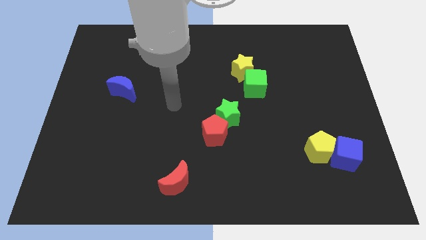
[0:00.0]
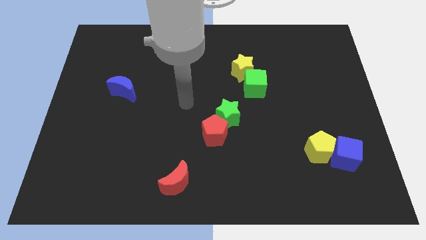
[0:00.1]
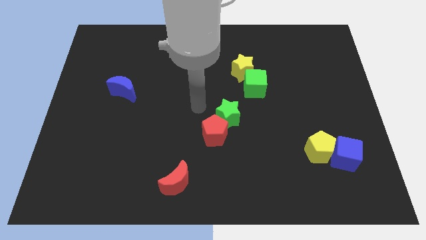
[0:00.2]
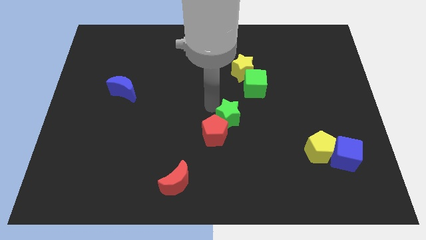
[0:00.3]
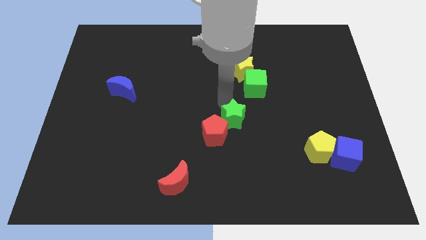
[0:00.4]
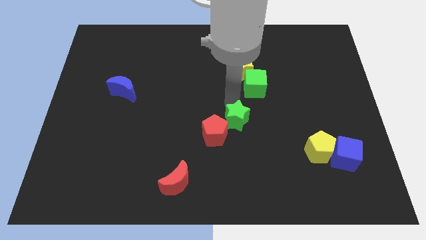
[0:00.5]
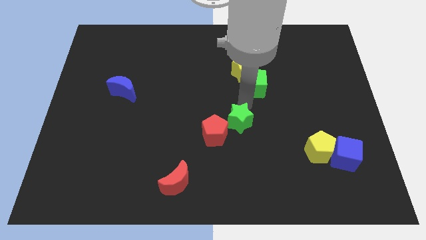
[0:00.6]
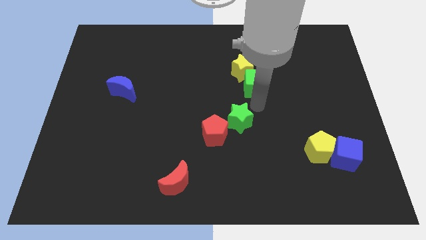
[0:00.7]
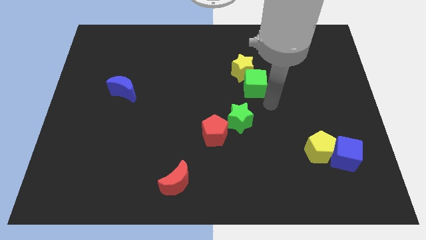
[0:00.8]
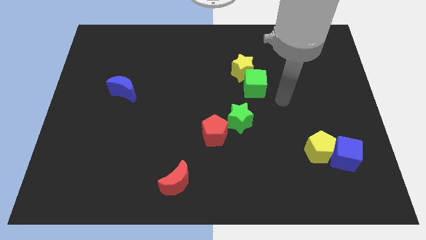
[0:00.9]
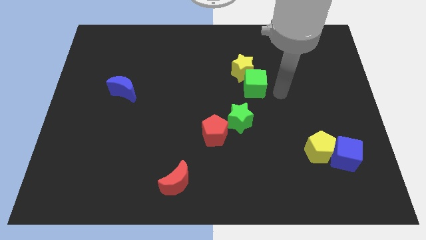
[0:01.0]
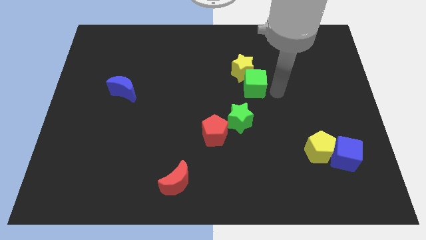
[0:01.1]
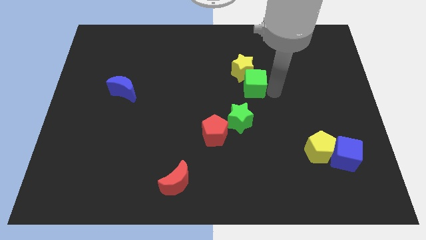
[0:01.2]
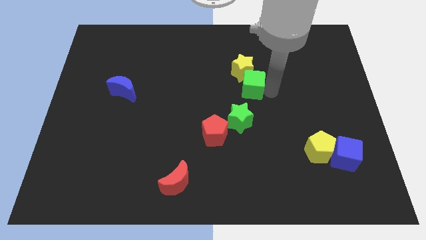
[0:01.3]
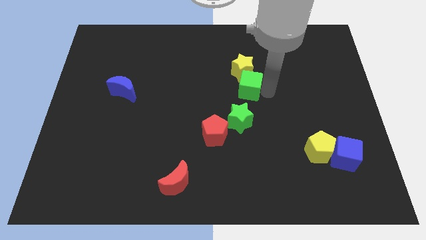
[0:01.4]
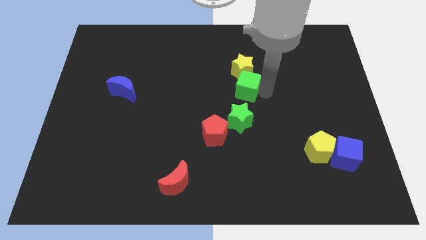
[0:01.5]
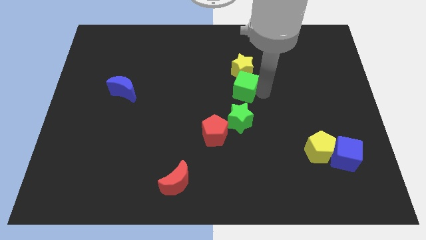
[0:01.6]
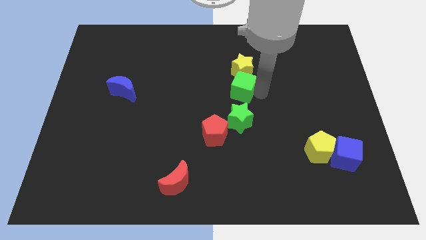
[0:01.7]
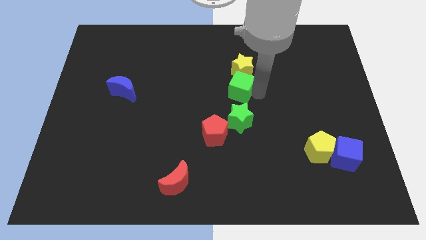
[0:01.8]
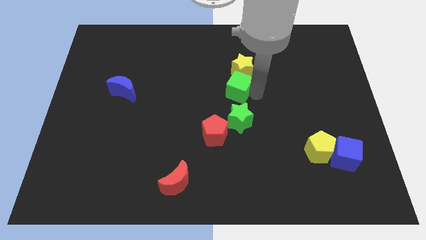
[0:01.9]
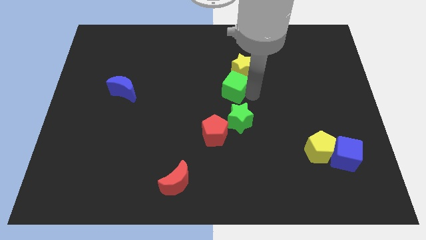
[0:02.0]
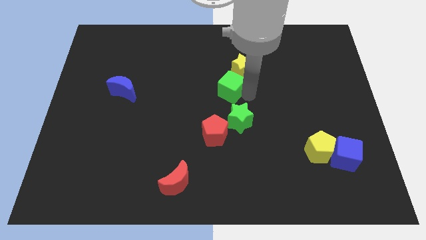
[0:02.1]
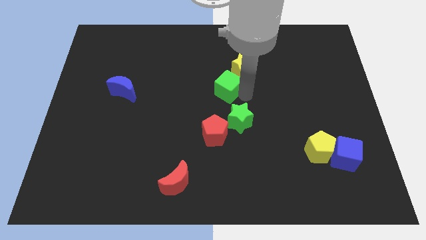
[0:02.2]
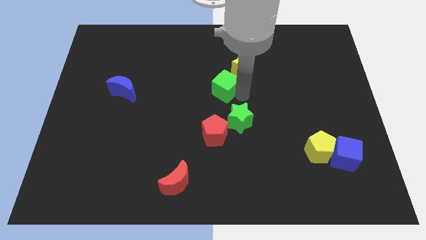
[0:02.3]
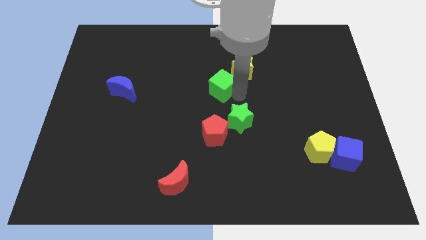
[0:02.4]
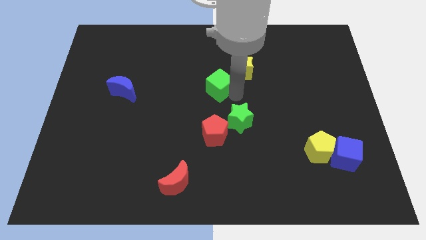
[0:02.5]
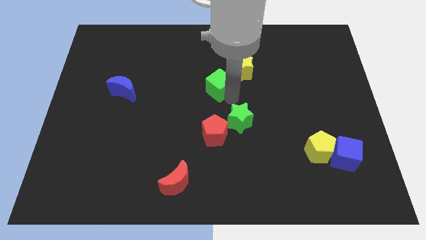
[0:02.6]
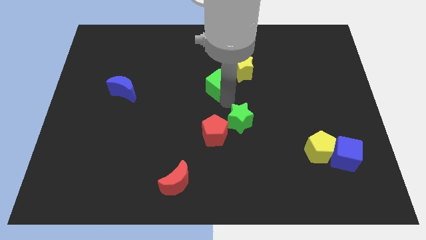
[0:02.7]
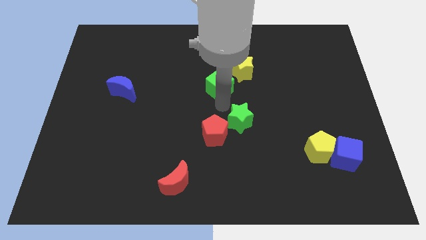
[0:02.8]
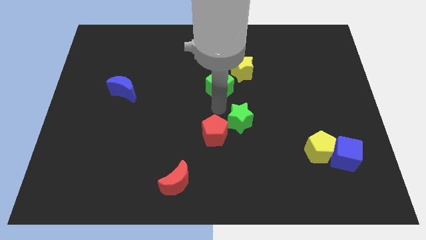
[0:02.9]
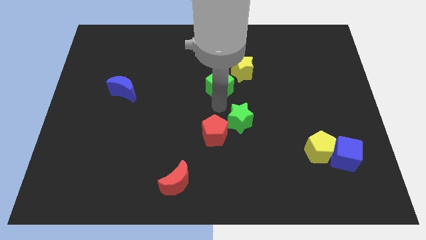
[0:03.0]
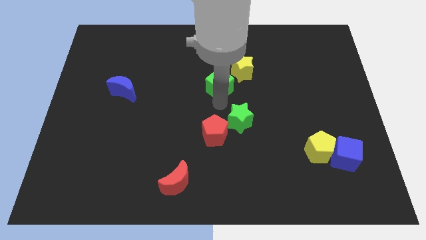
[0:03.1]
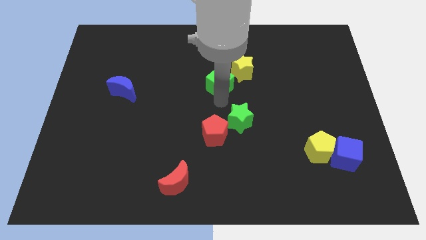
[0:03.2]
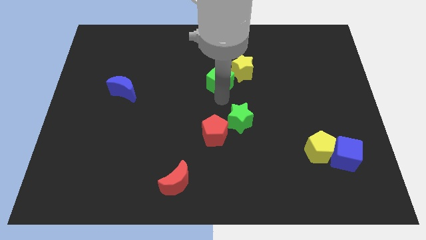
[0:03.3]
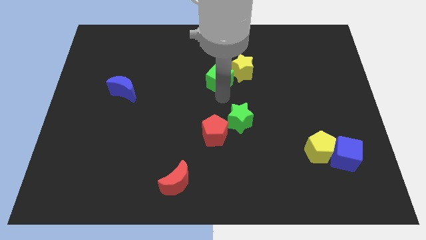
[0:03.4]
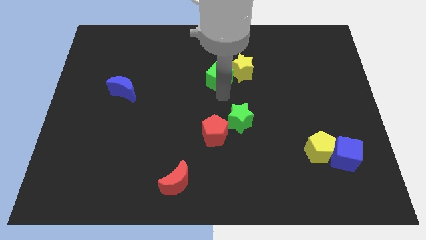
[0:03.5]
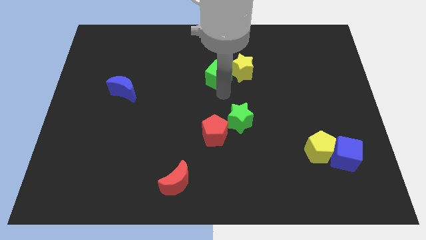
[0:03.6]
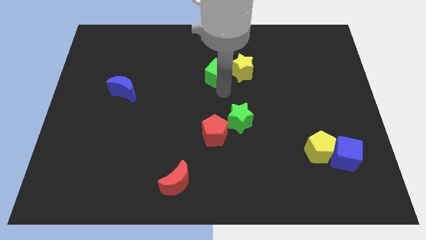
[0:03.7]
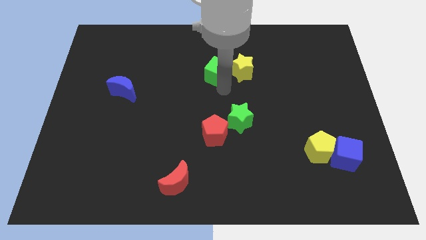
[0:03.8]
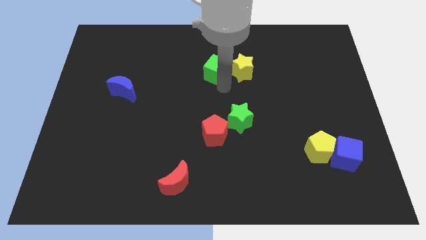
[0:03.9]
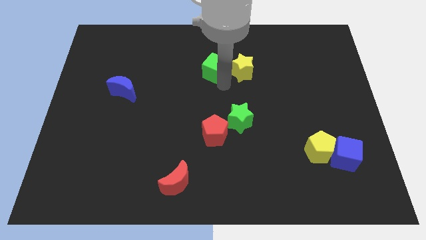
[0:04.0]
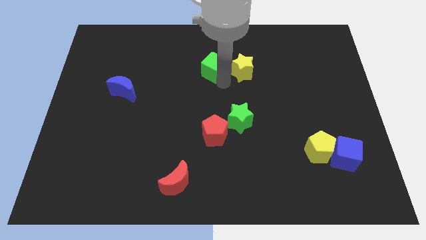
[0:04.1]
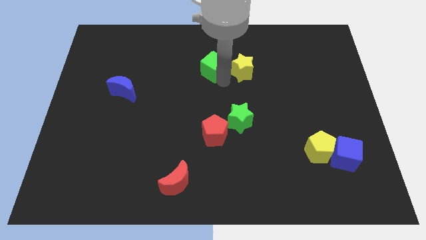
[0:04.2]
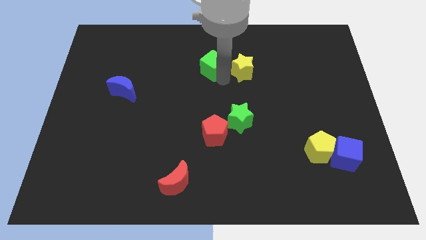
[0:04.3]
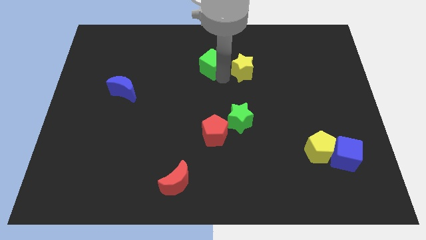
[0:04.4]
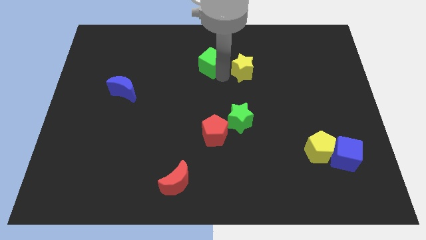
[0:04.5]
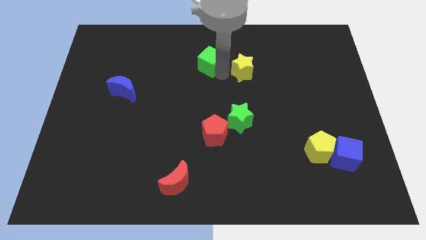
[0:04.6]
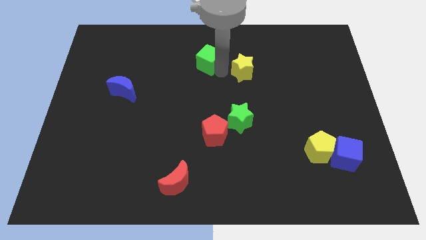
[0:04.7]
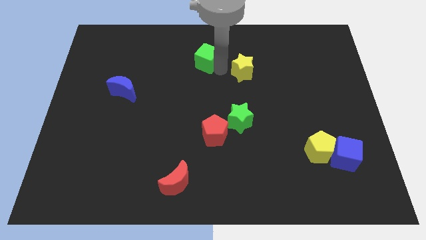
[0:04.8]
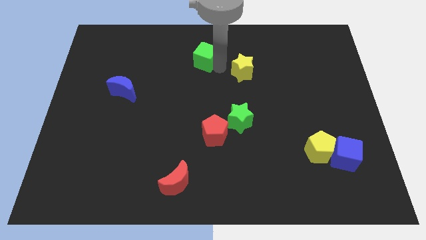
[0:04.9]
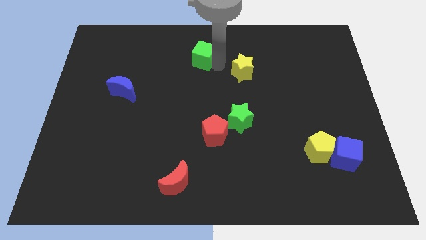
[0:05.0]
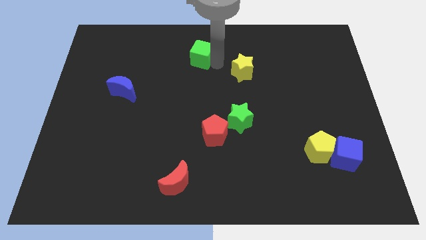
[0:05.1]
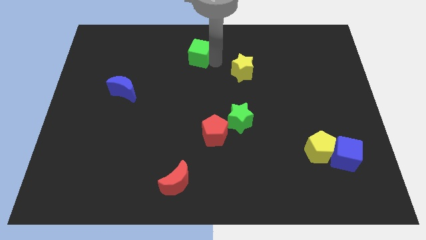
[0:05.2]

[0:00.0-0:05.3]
push the green cube to the top

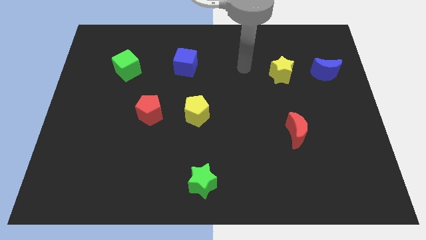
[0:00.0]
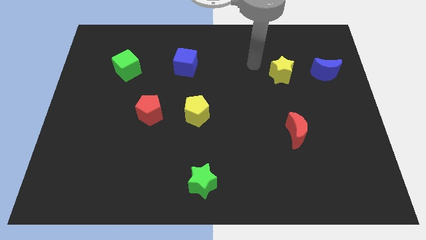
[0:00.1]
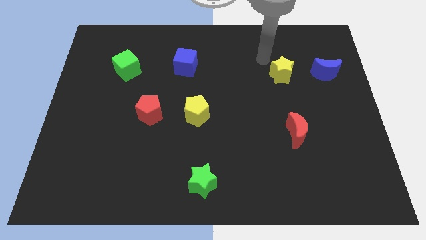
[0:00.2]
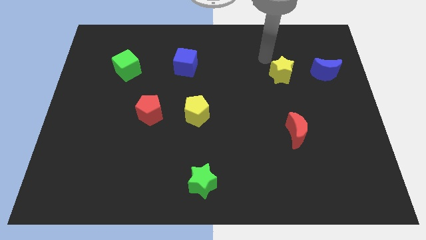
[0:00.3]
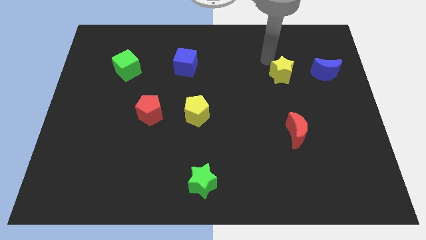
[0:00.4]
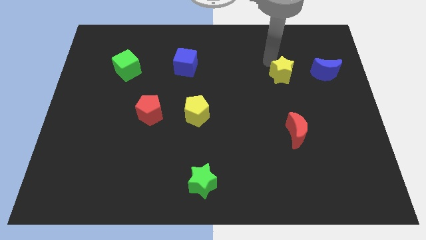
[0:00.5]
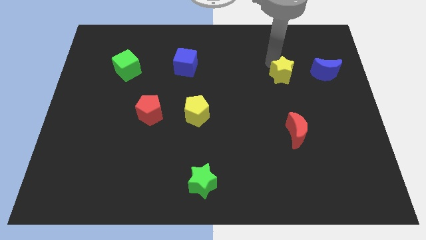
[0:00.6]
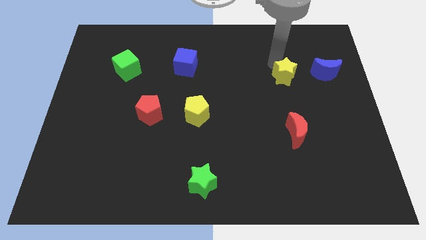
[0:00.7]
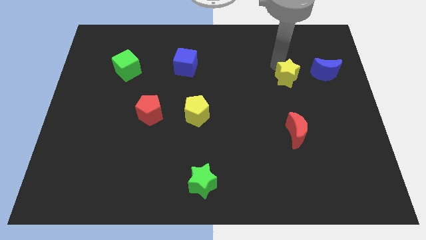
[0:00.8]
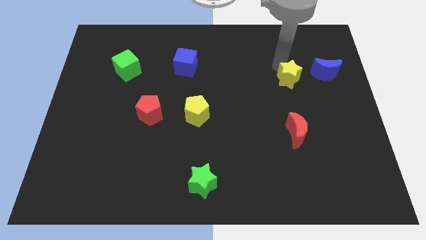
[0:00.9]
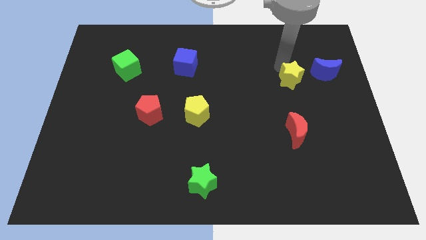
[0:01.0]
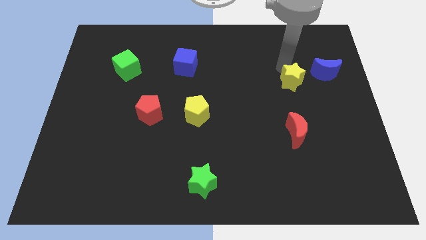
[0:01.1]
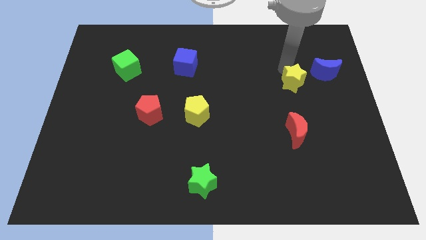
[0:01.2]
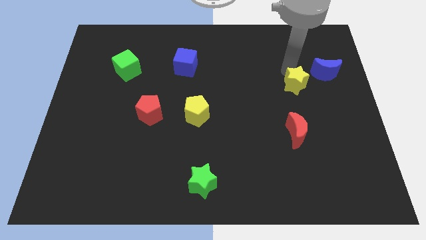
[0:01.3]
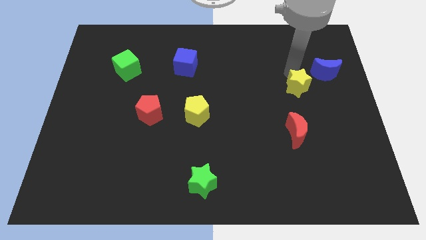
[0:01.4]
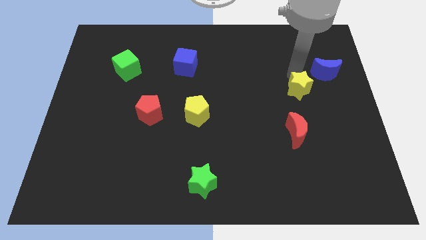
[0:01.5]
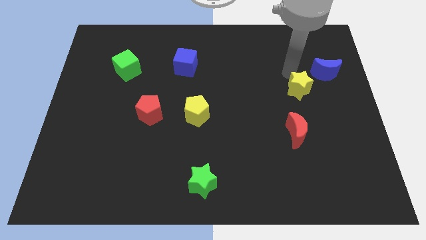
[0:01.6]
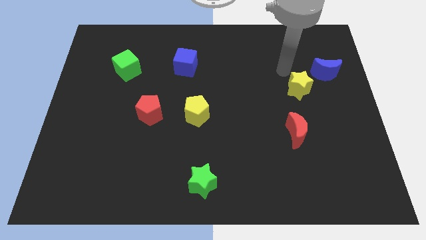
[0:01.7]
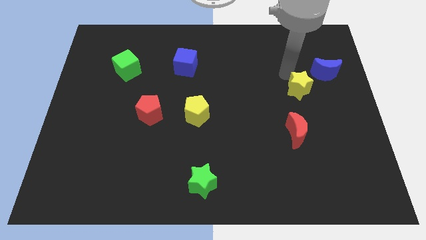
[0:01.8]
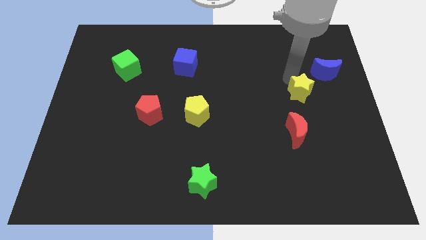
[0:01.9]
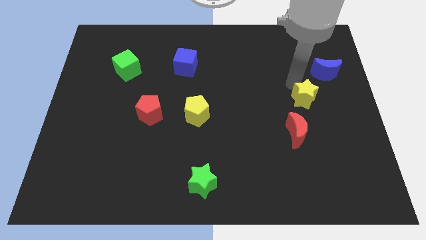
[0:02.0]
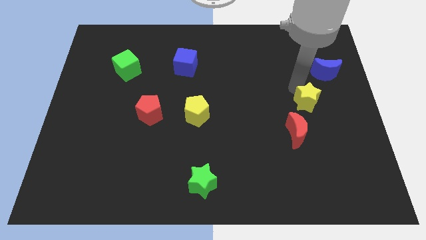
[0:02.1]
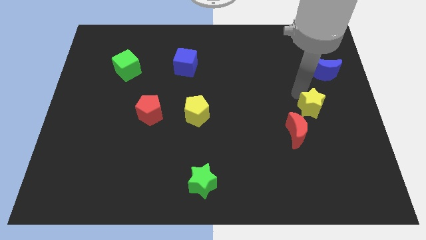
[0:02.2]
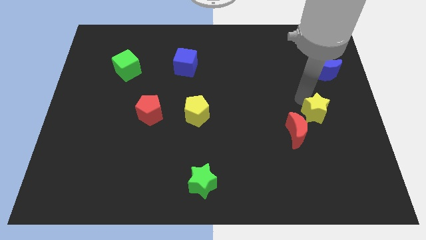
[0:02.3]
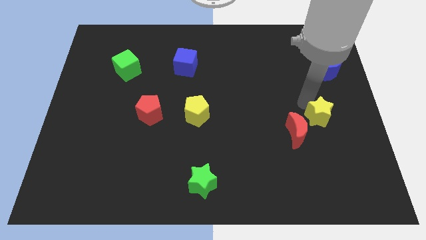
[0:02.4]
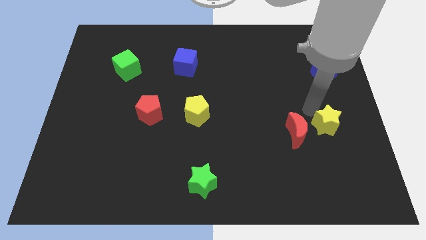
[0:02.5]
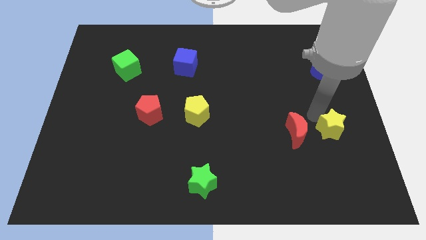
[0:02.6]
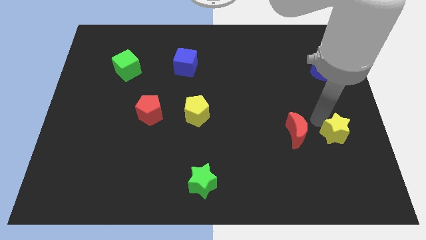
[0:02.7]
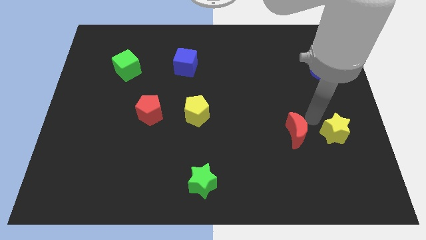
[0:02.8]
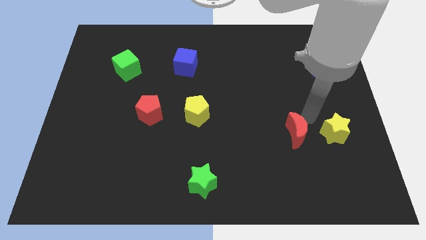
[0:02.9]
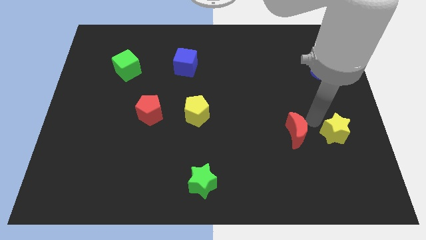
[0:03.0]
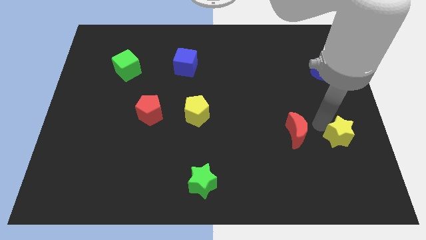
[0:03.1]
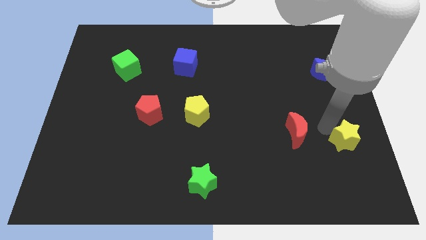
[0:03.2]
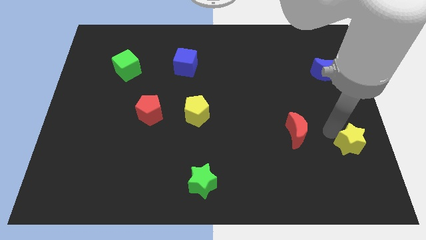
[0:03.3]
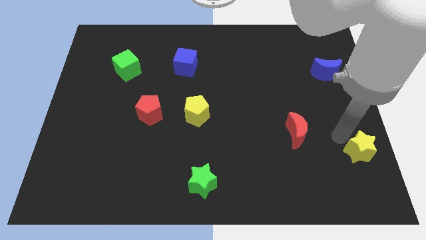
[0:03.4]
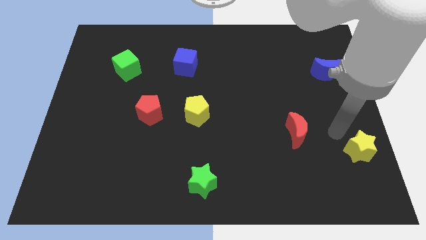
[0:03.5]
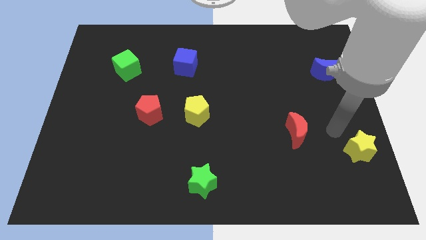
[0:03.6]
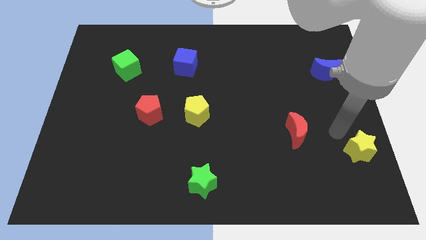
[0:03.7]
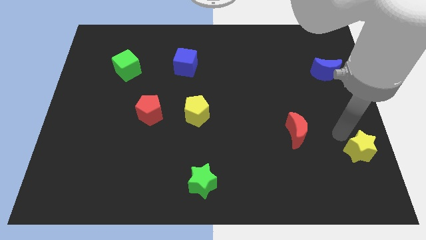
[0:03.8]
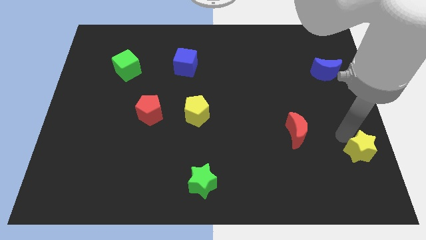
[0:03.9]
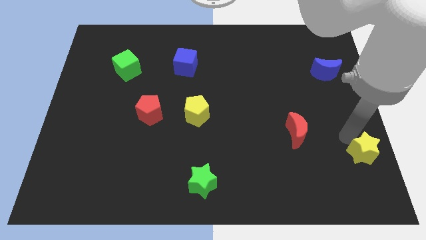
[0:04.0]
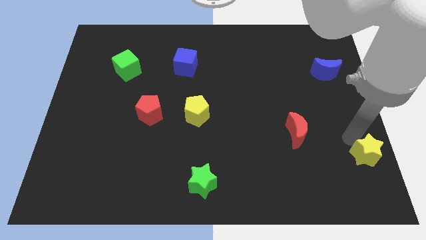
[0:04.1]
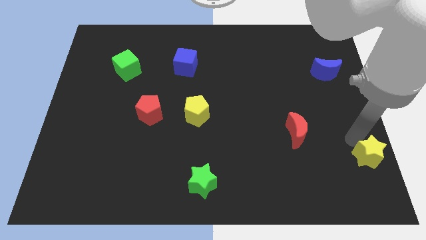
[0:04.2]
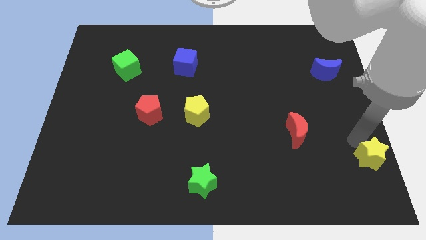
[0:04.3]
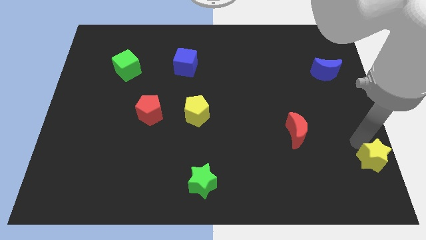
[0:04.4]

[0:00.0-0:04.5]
move the yellow star to the bottom right corner
